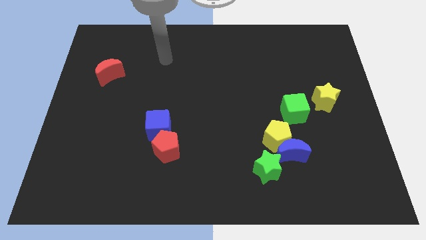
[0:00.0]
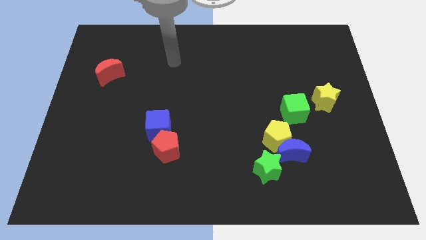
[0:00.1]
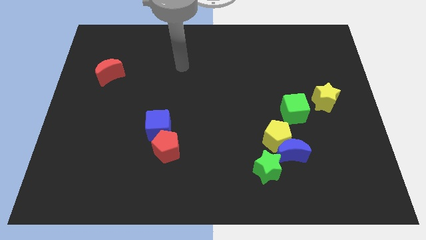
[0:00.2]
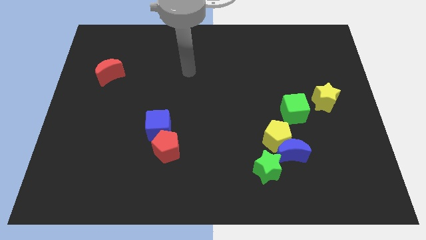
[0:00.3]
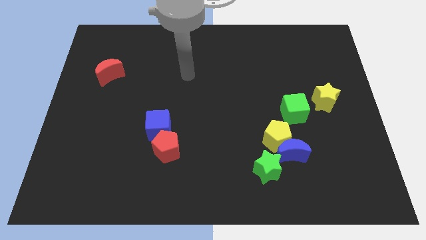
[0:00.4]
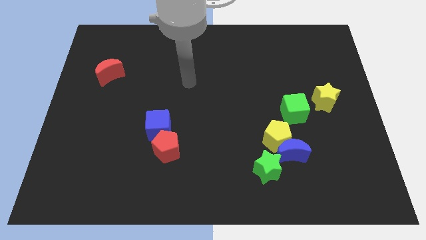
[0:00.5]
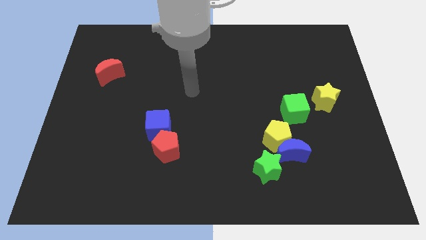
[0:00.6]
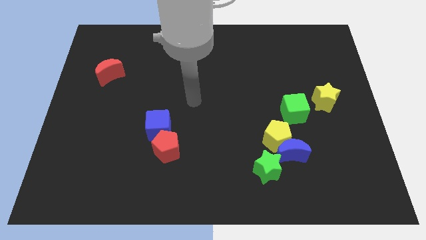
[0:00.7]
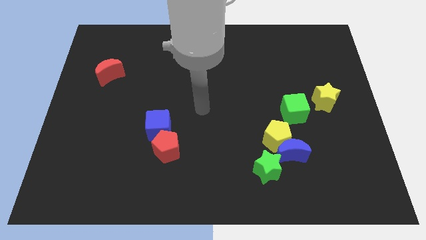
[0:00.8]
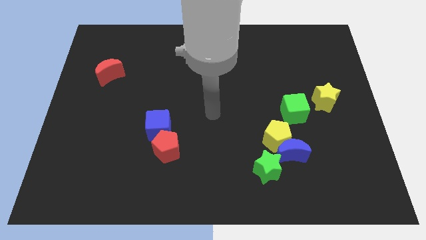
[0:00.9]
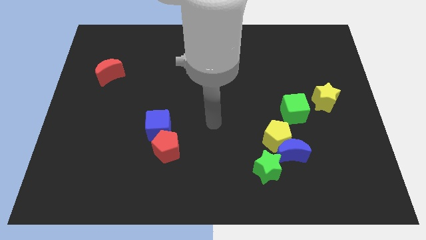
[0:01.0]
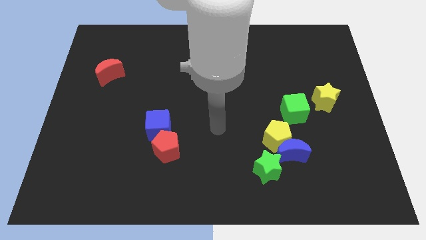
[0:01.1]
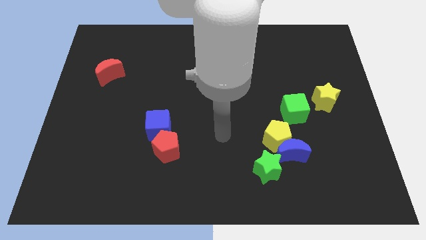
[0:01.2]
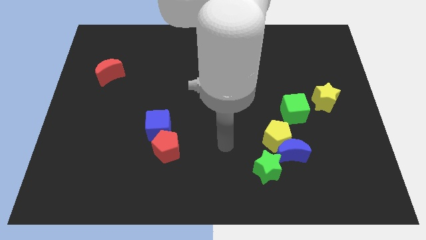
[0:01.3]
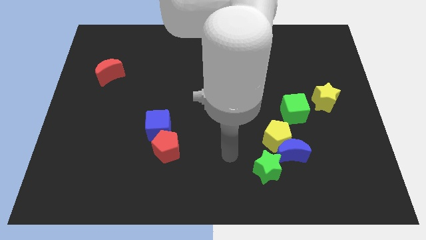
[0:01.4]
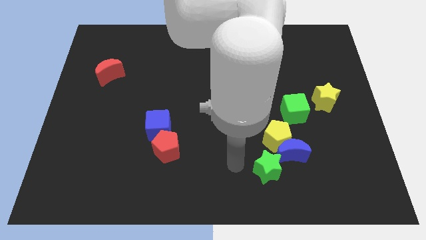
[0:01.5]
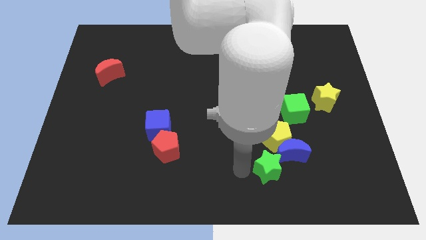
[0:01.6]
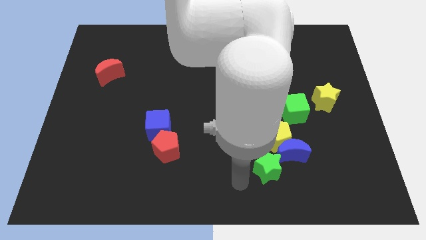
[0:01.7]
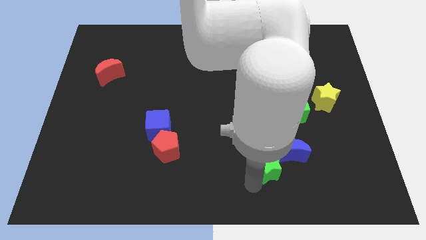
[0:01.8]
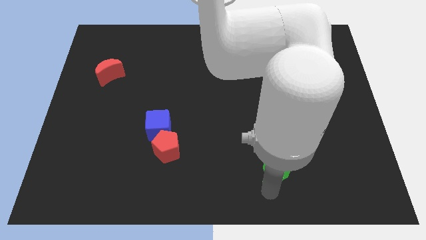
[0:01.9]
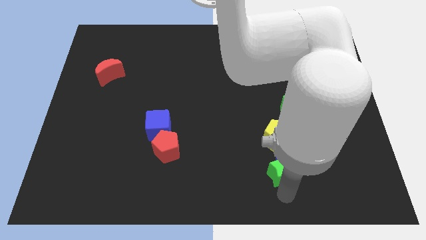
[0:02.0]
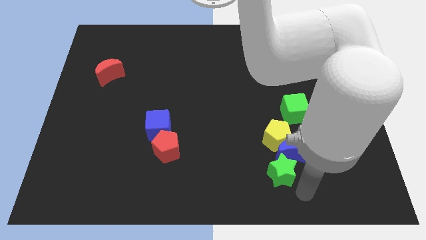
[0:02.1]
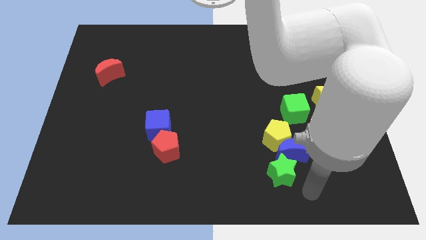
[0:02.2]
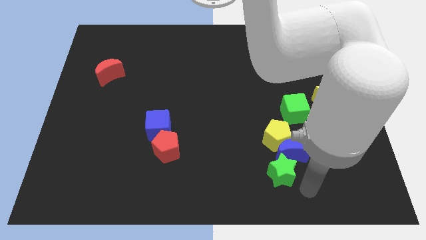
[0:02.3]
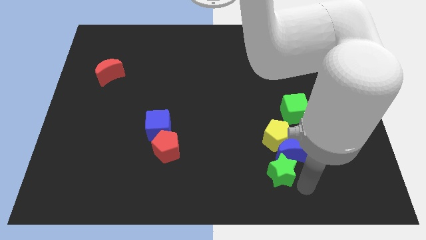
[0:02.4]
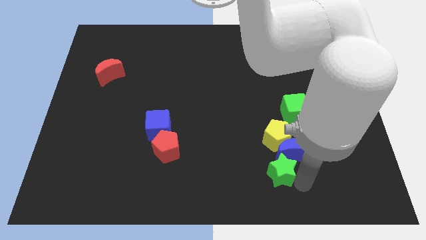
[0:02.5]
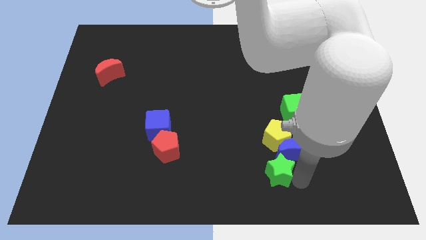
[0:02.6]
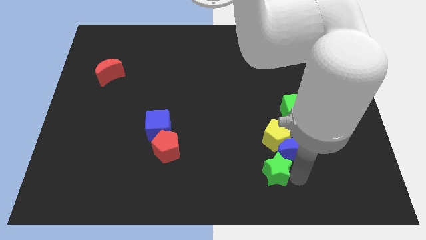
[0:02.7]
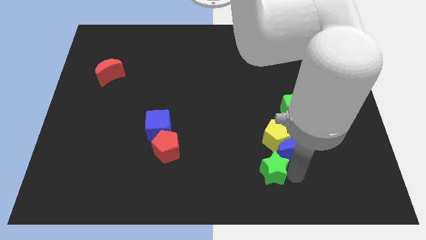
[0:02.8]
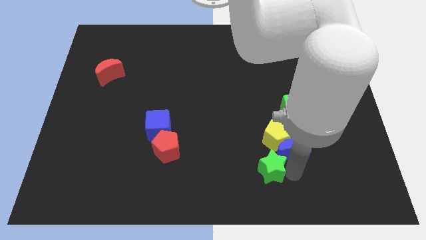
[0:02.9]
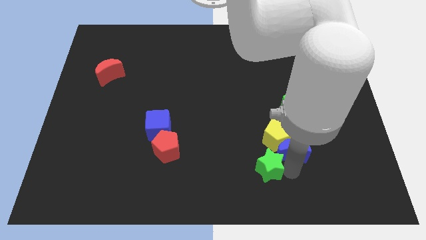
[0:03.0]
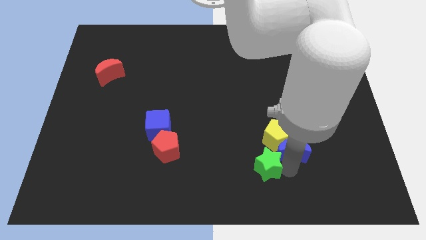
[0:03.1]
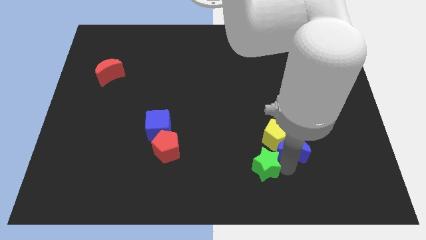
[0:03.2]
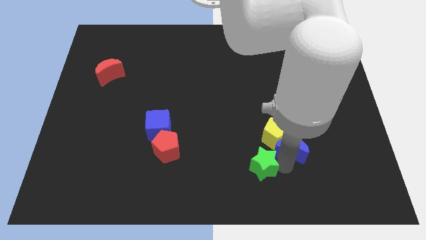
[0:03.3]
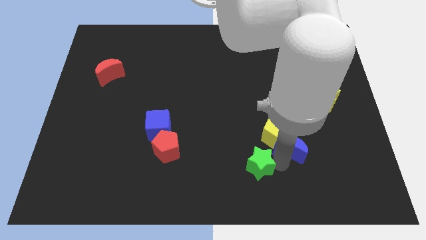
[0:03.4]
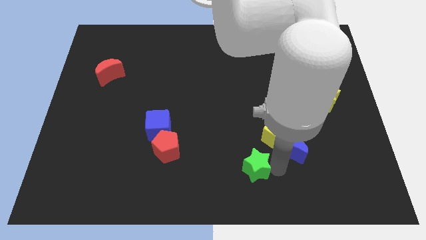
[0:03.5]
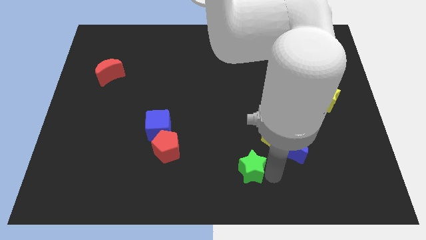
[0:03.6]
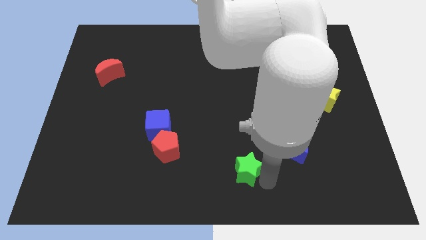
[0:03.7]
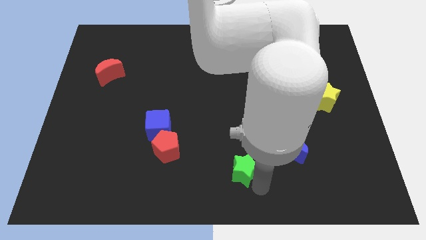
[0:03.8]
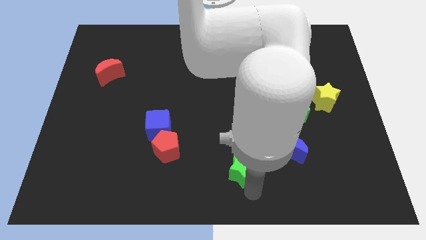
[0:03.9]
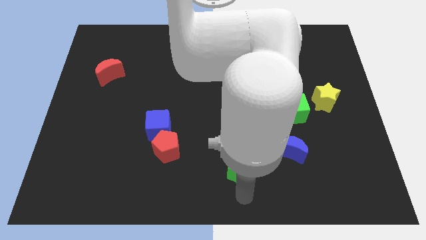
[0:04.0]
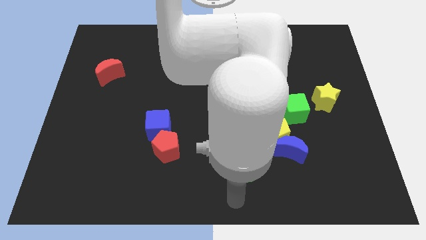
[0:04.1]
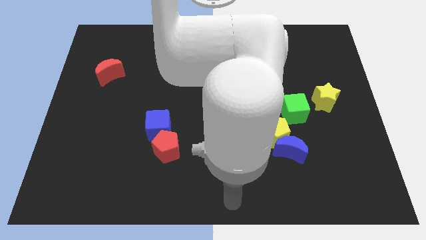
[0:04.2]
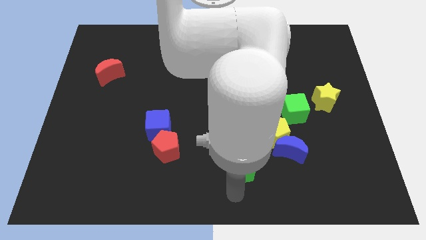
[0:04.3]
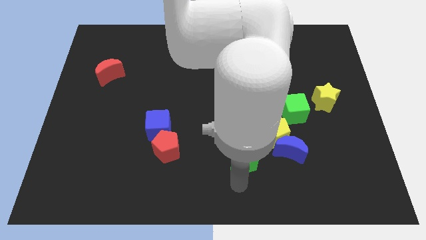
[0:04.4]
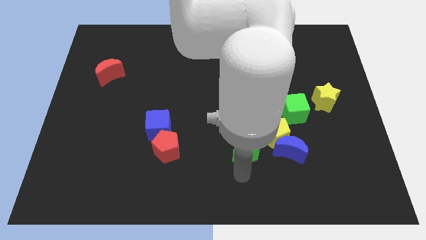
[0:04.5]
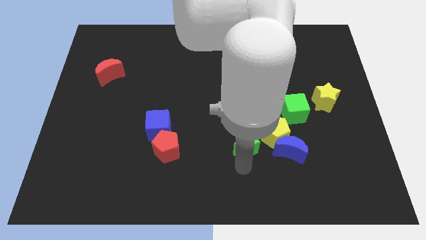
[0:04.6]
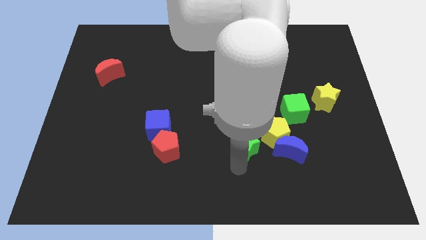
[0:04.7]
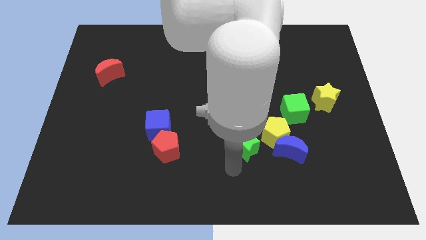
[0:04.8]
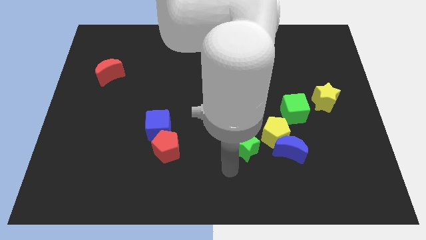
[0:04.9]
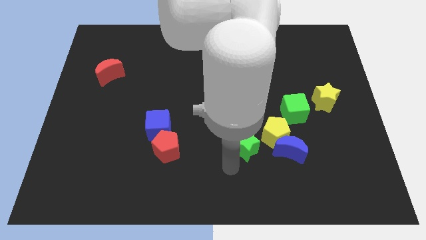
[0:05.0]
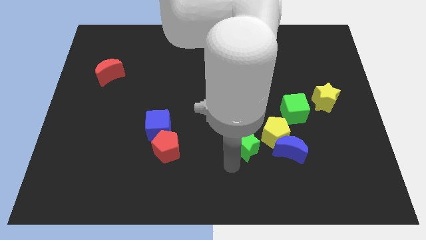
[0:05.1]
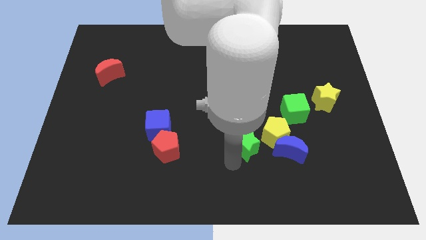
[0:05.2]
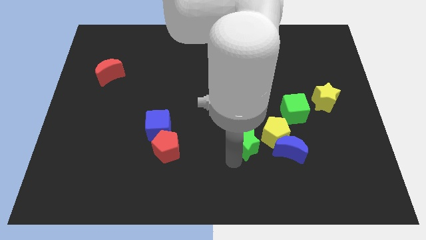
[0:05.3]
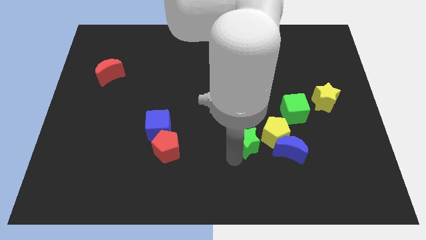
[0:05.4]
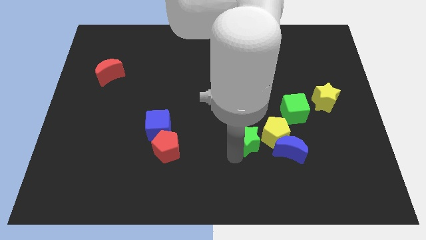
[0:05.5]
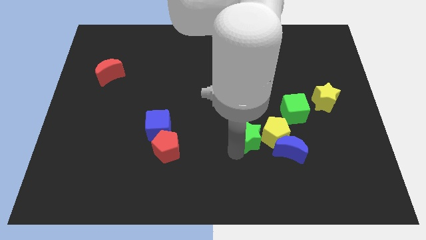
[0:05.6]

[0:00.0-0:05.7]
slightly push the green star upwards

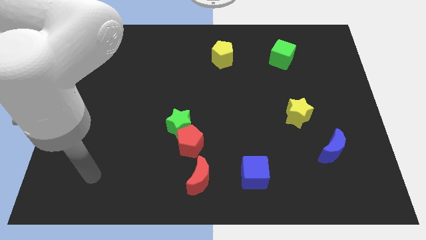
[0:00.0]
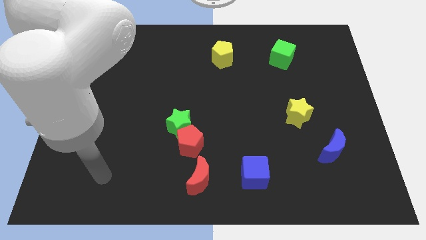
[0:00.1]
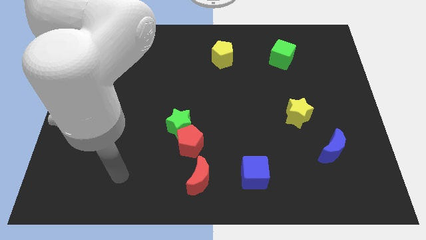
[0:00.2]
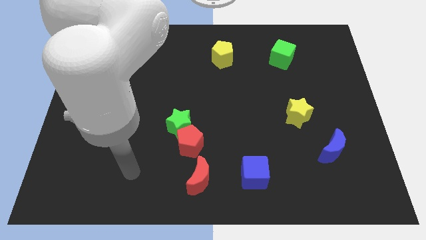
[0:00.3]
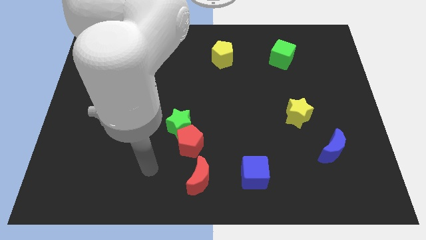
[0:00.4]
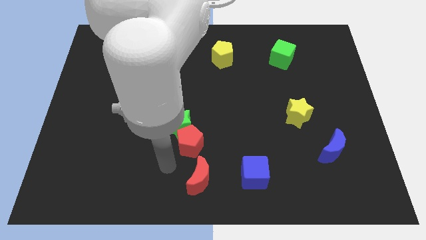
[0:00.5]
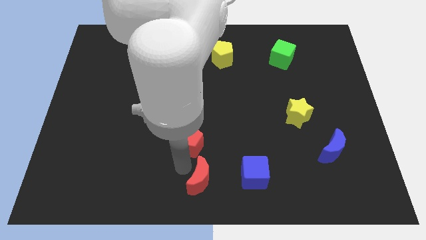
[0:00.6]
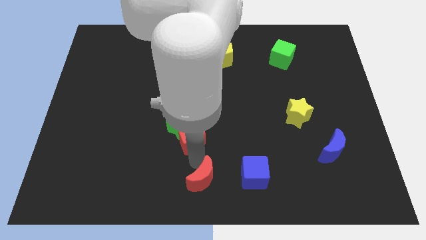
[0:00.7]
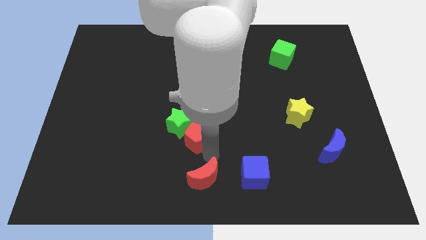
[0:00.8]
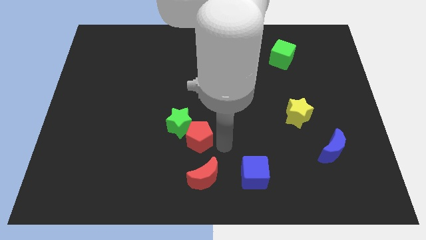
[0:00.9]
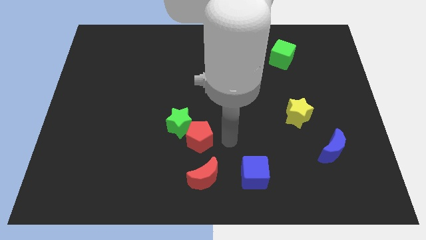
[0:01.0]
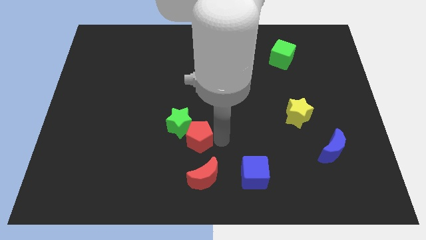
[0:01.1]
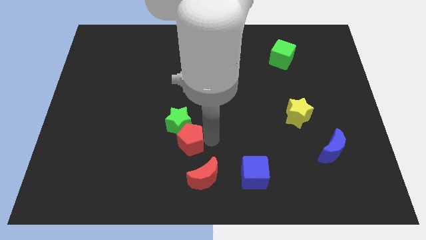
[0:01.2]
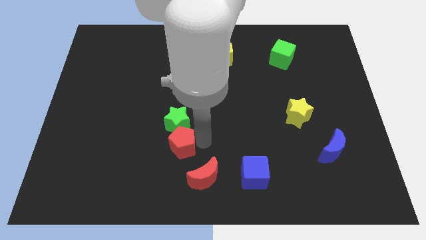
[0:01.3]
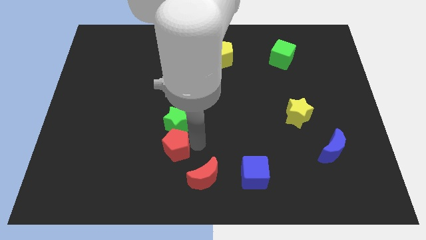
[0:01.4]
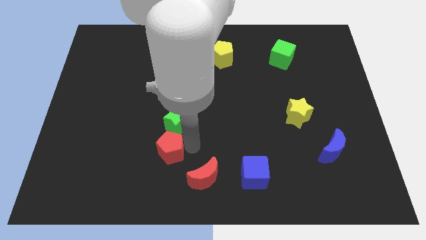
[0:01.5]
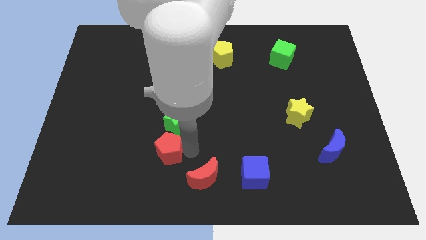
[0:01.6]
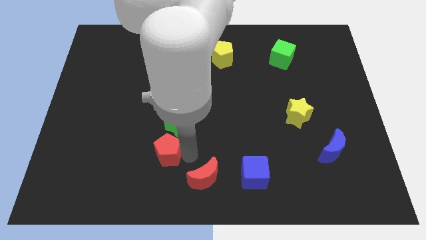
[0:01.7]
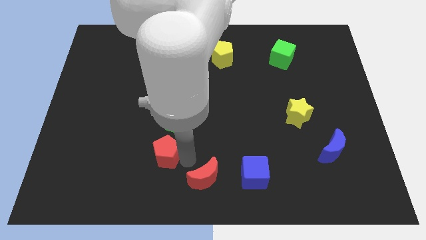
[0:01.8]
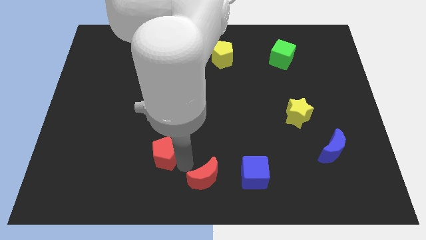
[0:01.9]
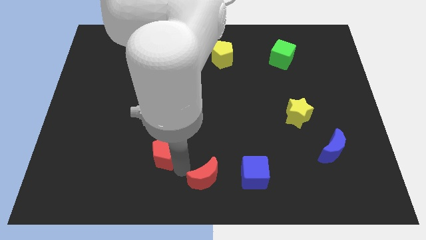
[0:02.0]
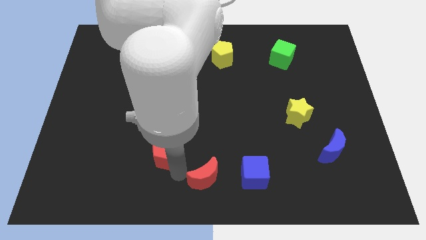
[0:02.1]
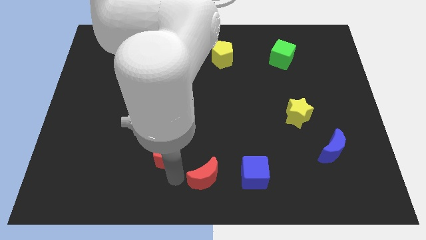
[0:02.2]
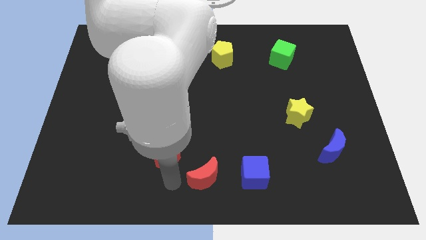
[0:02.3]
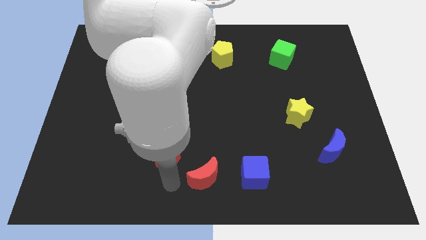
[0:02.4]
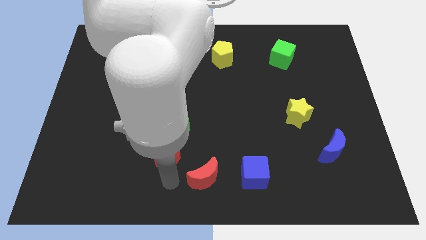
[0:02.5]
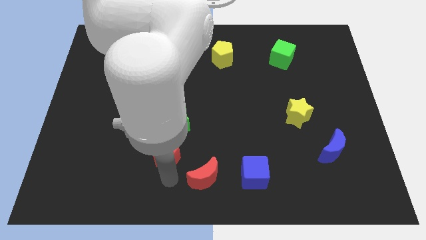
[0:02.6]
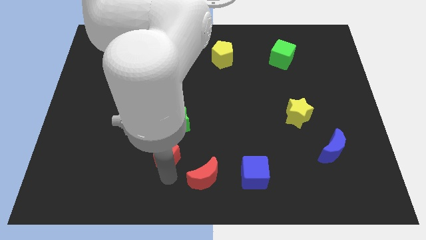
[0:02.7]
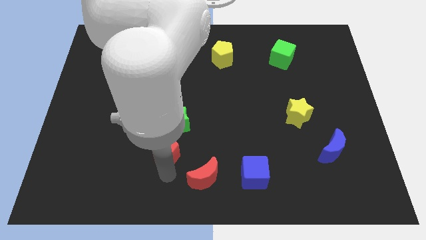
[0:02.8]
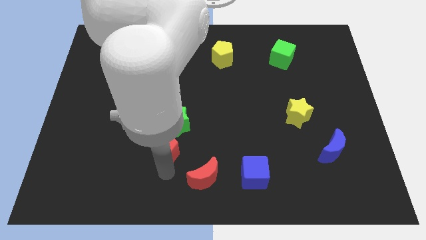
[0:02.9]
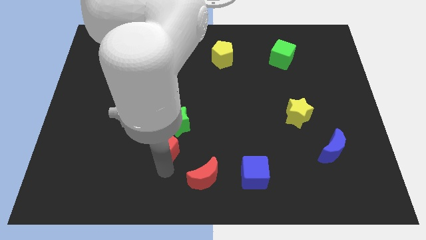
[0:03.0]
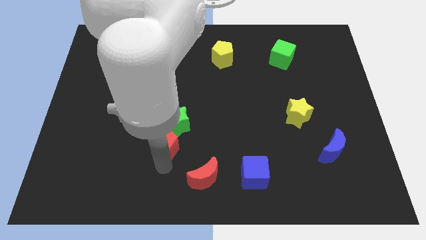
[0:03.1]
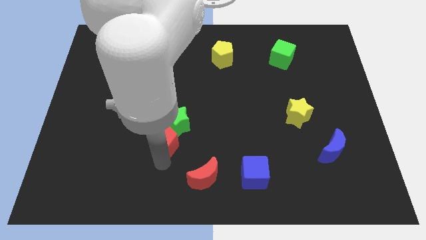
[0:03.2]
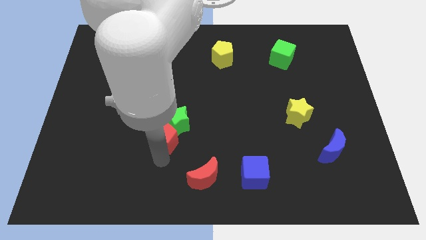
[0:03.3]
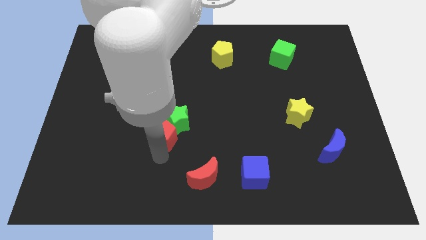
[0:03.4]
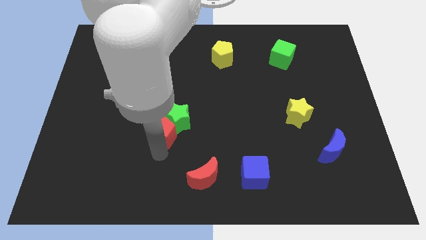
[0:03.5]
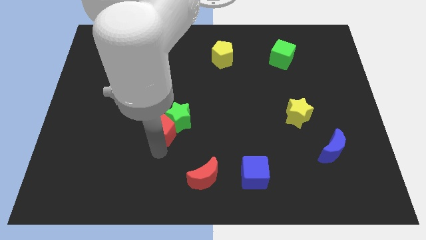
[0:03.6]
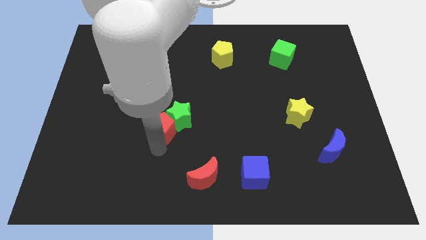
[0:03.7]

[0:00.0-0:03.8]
push the red pentagon diagonally upwards and left a little bit
